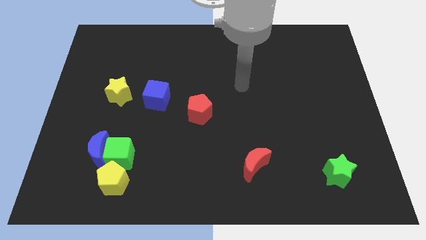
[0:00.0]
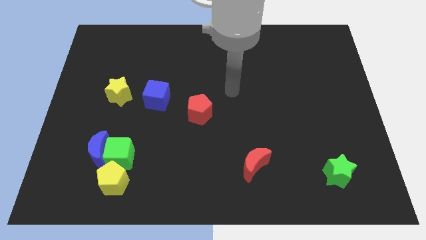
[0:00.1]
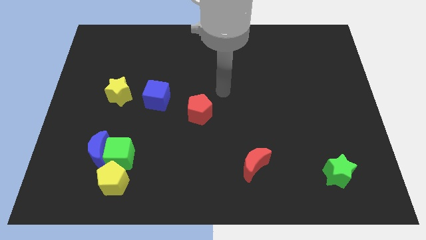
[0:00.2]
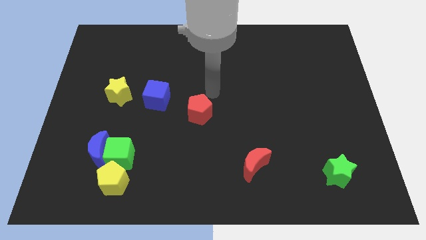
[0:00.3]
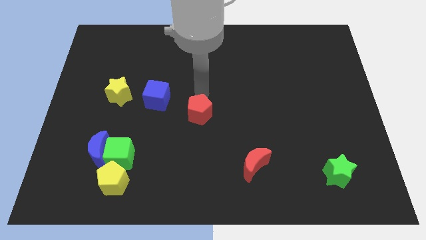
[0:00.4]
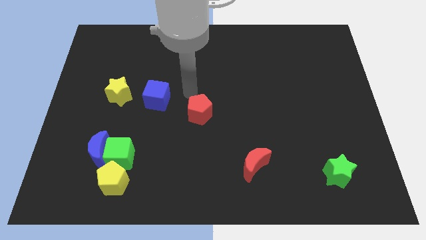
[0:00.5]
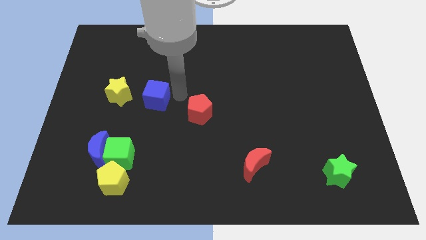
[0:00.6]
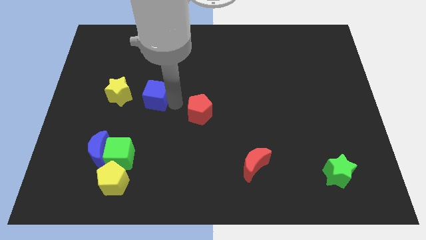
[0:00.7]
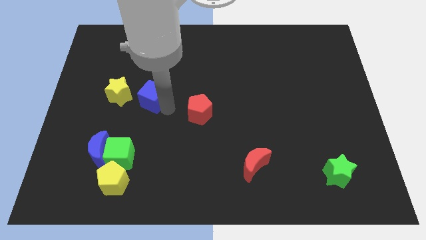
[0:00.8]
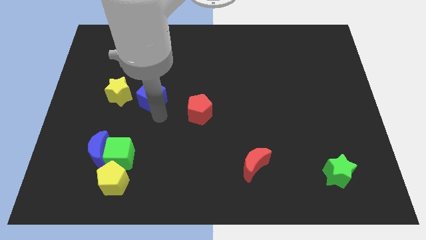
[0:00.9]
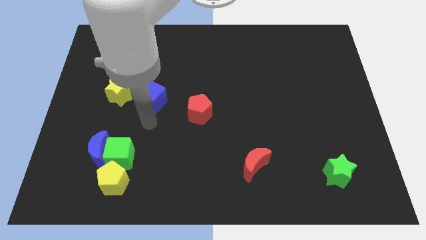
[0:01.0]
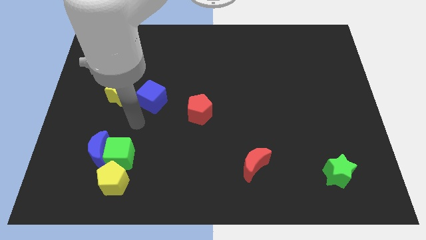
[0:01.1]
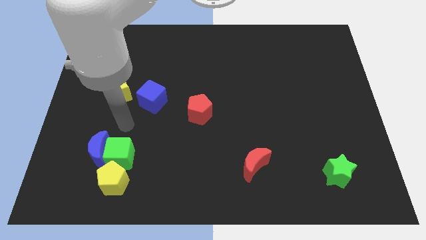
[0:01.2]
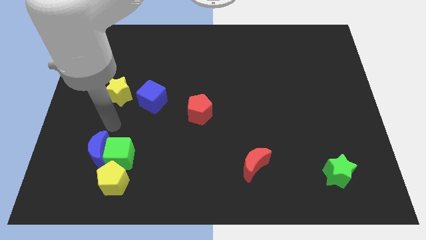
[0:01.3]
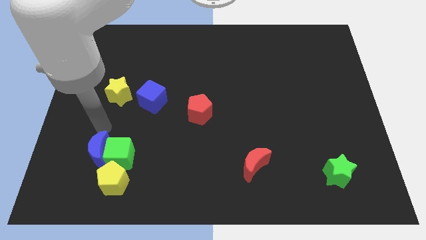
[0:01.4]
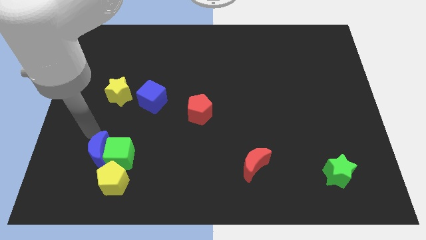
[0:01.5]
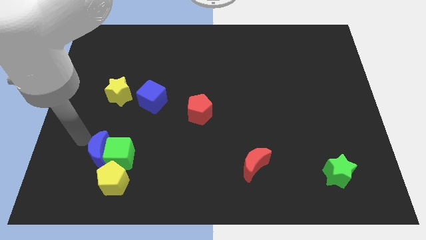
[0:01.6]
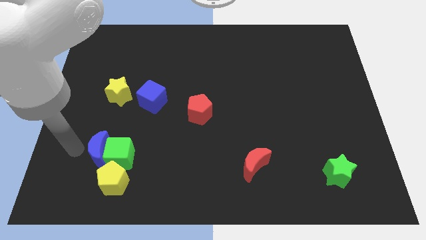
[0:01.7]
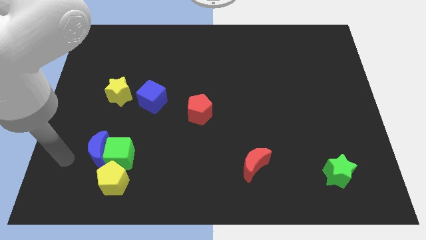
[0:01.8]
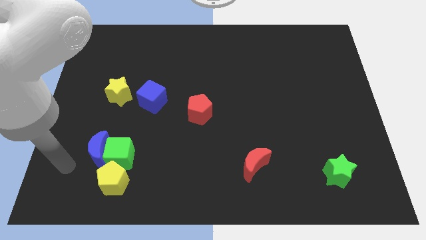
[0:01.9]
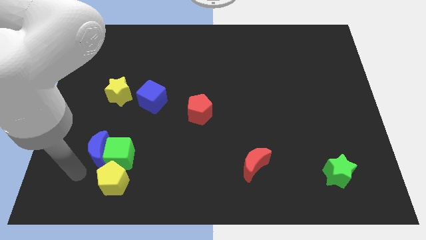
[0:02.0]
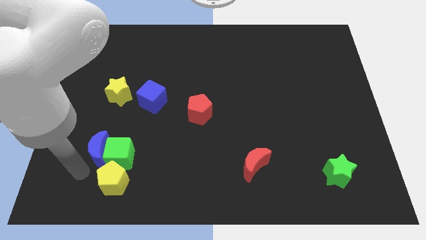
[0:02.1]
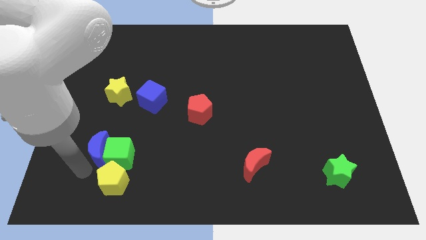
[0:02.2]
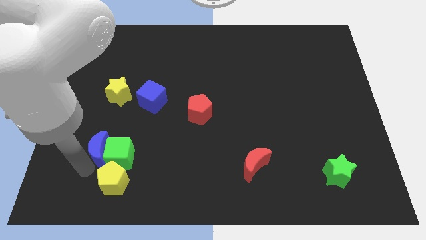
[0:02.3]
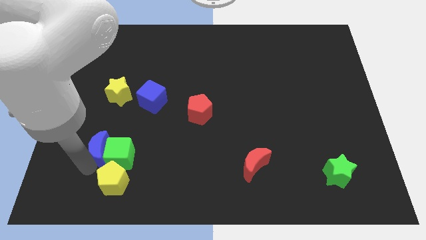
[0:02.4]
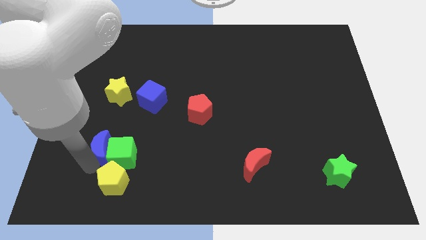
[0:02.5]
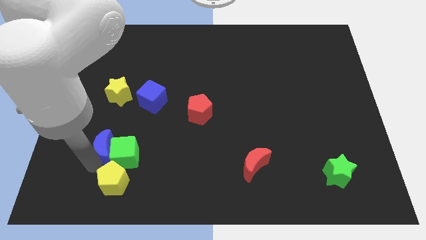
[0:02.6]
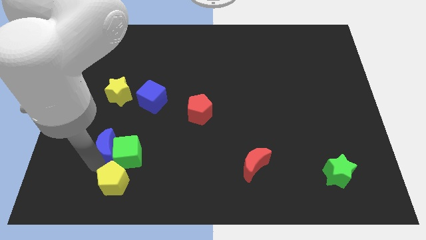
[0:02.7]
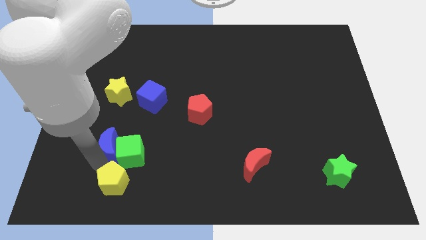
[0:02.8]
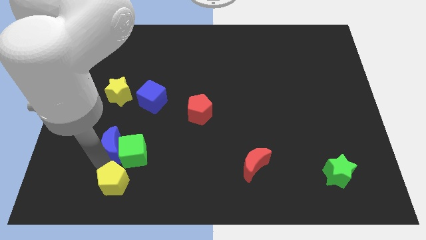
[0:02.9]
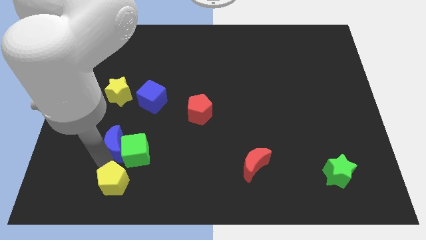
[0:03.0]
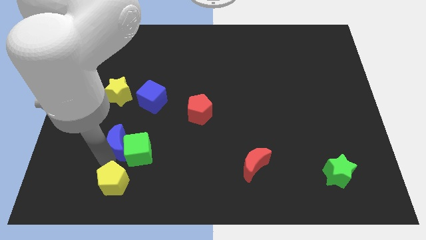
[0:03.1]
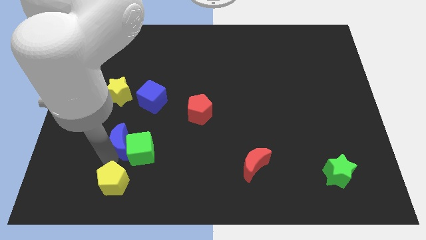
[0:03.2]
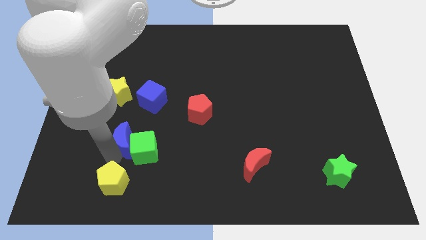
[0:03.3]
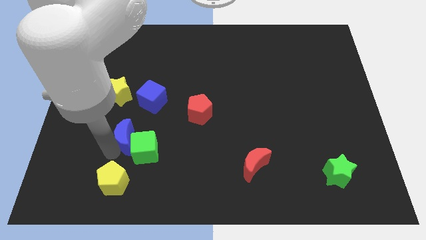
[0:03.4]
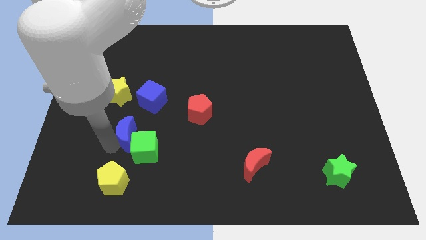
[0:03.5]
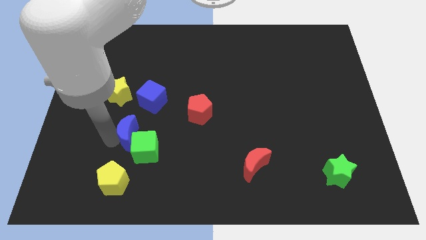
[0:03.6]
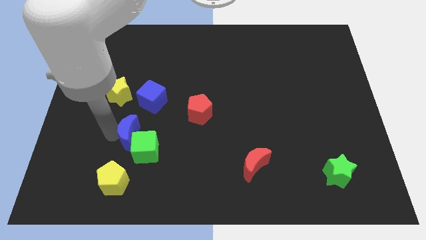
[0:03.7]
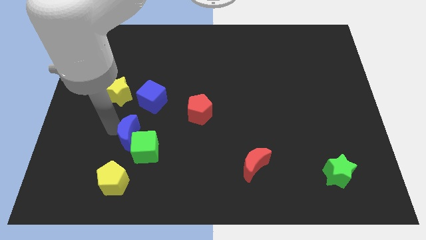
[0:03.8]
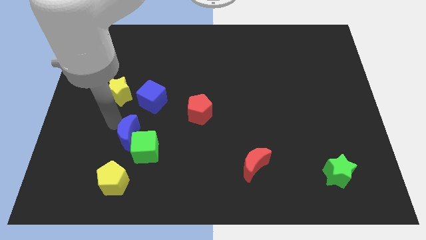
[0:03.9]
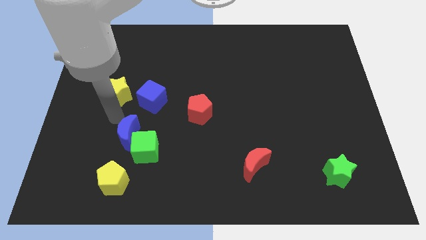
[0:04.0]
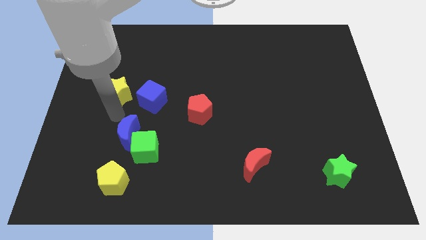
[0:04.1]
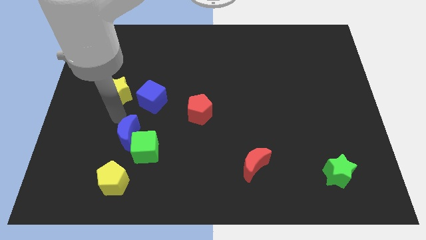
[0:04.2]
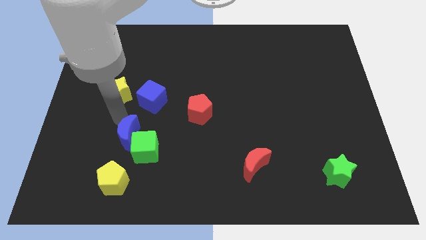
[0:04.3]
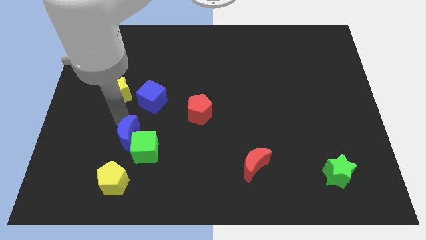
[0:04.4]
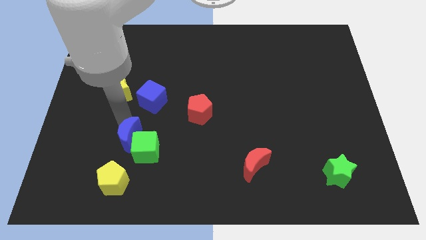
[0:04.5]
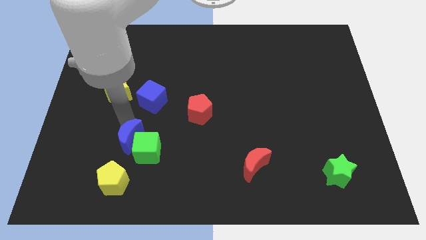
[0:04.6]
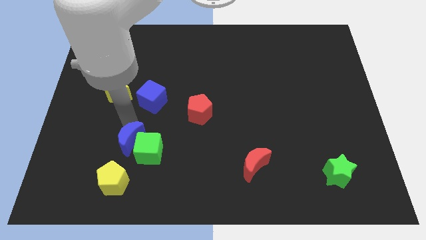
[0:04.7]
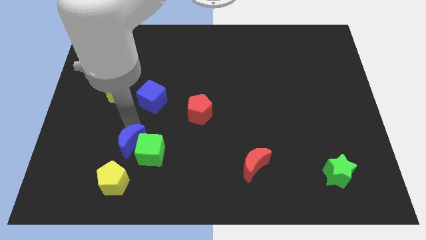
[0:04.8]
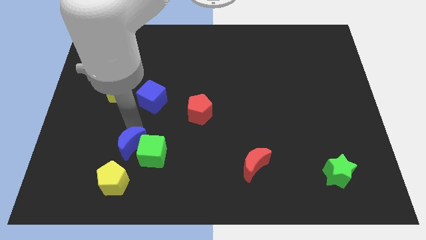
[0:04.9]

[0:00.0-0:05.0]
push the blue moon diagonally up and to the right of the yellow pentagon

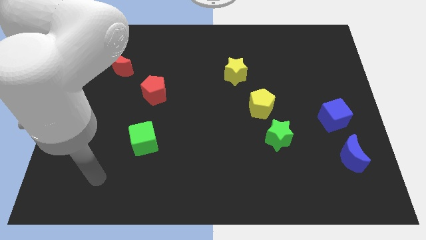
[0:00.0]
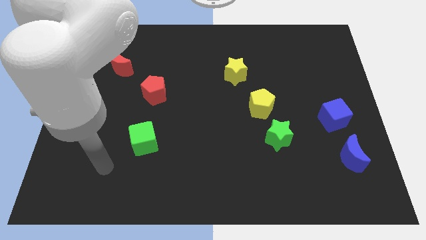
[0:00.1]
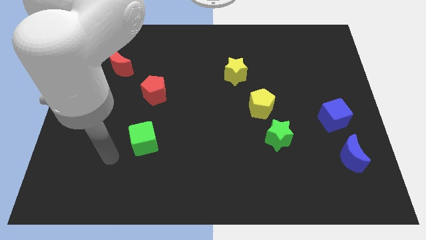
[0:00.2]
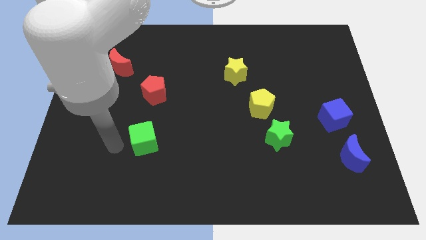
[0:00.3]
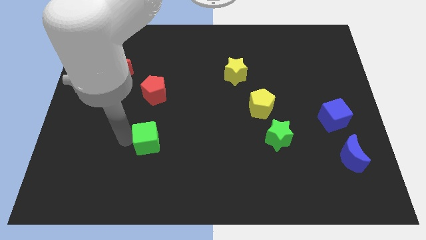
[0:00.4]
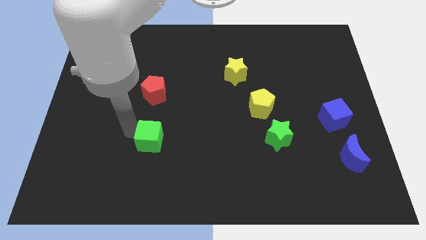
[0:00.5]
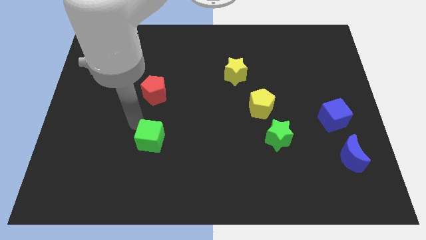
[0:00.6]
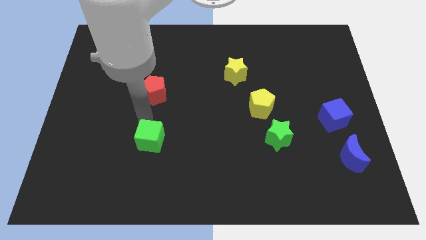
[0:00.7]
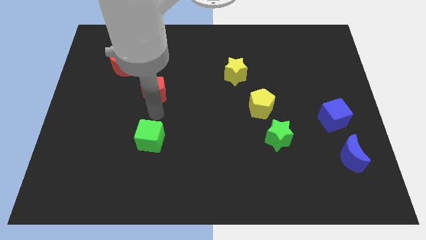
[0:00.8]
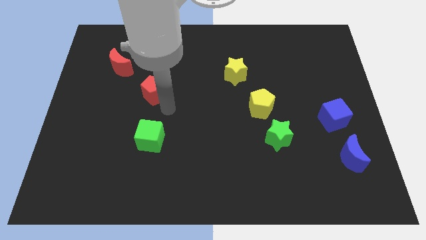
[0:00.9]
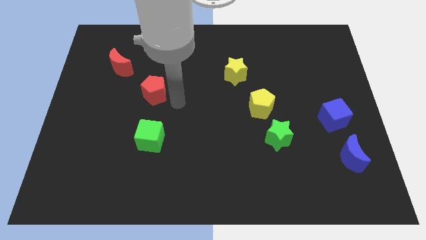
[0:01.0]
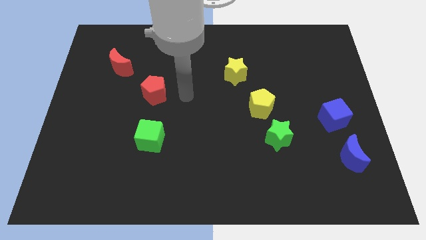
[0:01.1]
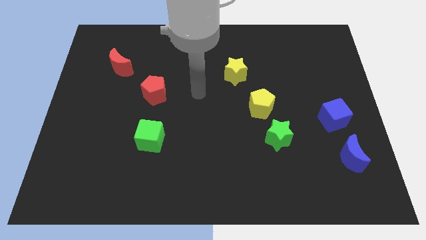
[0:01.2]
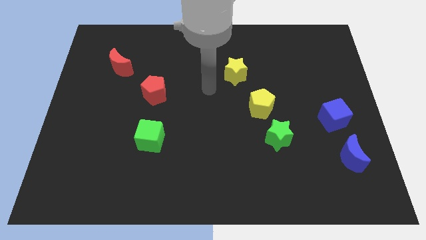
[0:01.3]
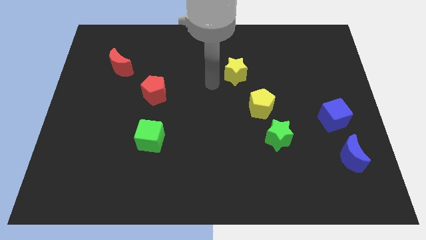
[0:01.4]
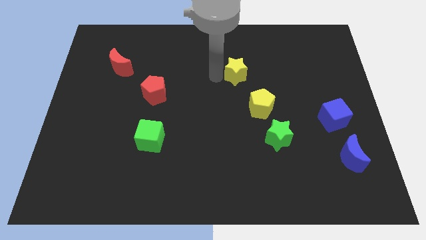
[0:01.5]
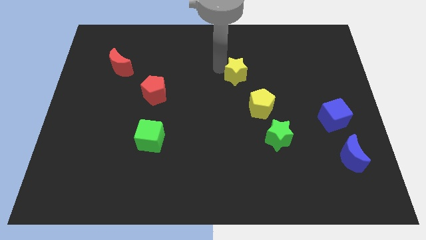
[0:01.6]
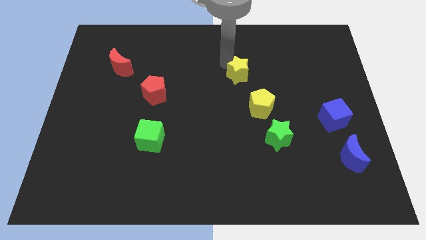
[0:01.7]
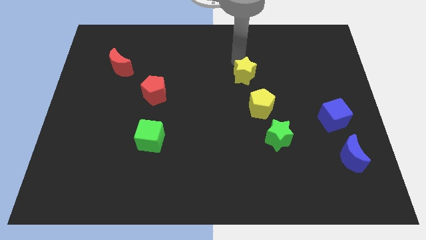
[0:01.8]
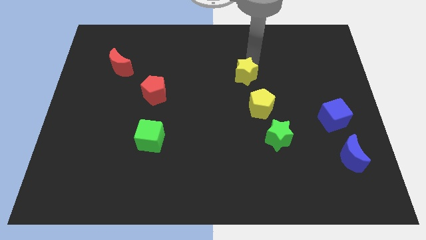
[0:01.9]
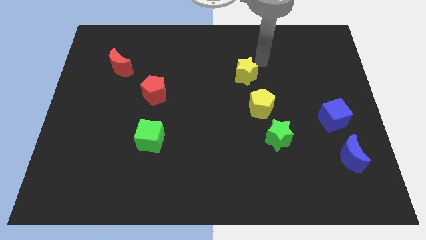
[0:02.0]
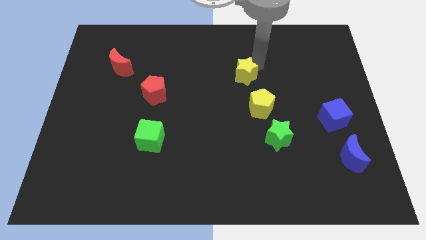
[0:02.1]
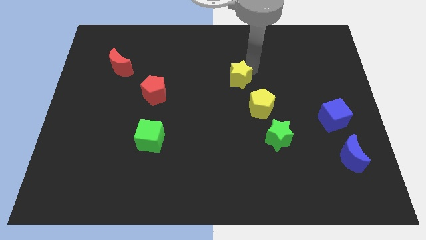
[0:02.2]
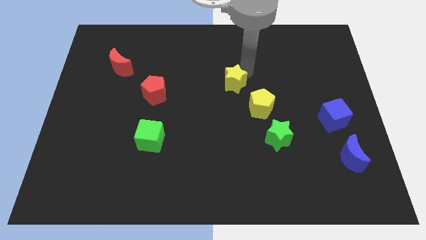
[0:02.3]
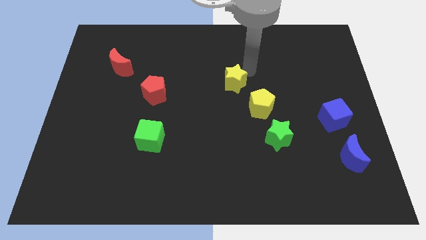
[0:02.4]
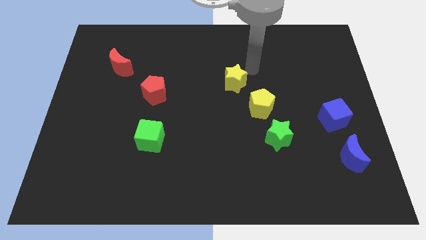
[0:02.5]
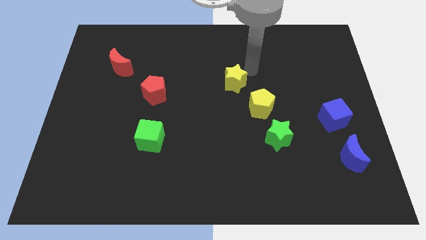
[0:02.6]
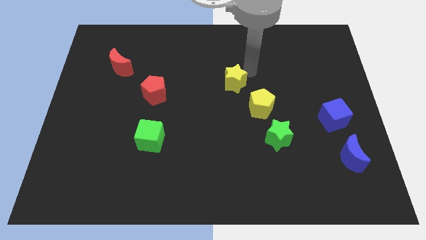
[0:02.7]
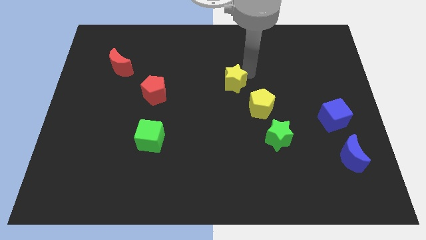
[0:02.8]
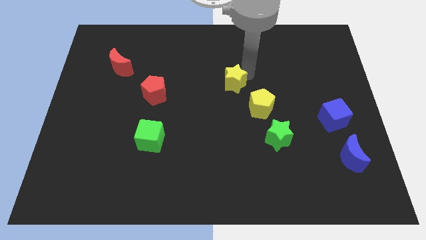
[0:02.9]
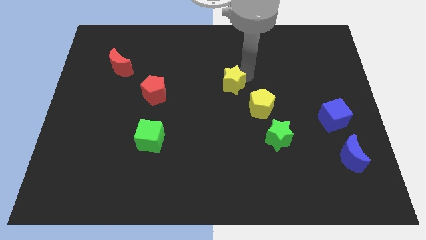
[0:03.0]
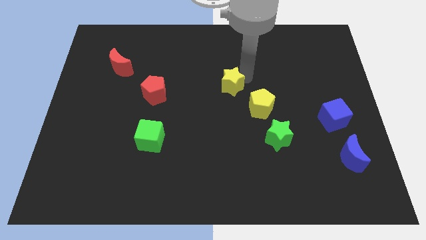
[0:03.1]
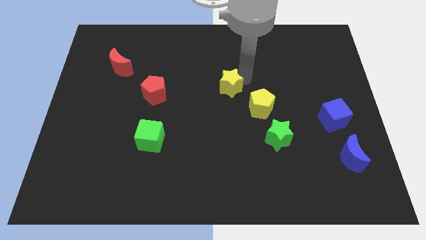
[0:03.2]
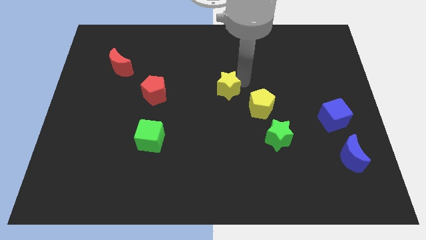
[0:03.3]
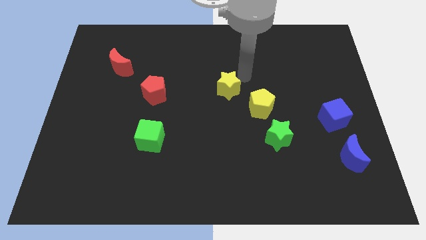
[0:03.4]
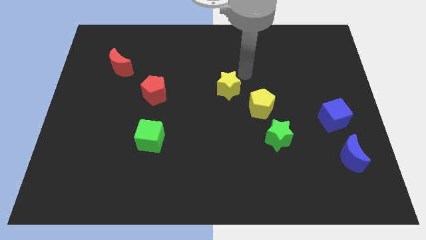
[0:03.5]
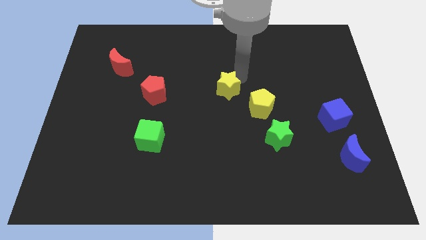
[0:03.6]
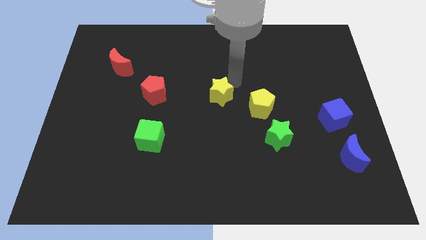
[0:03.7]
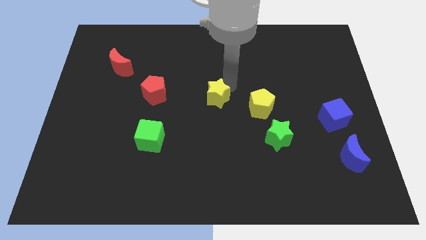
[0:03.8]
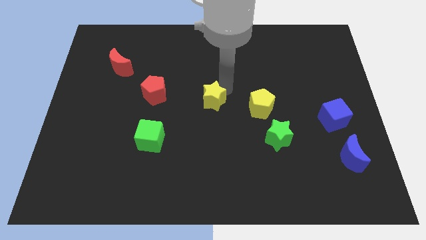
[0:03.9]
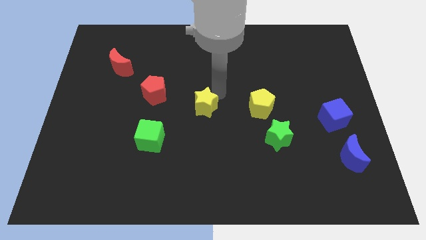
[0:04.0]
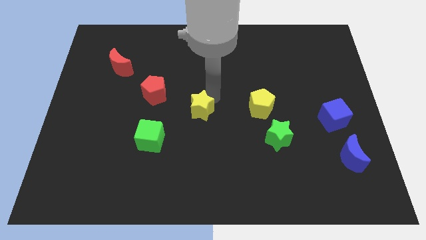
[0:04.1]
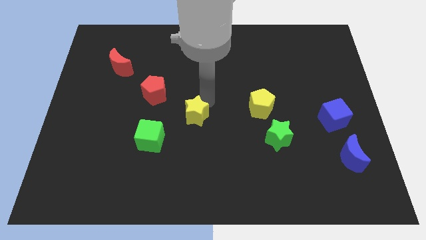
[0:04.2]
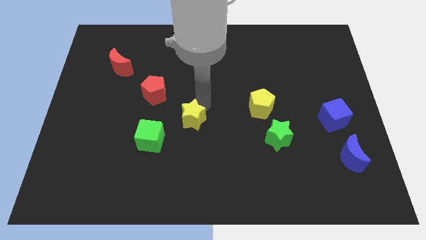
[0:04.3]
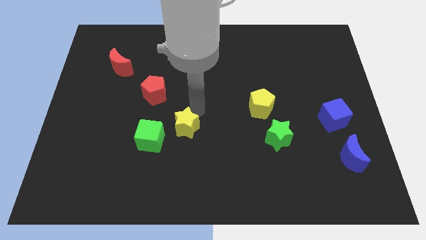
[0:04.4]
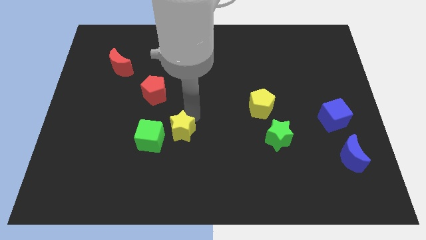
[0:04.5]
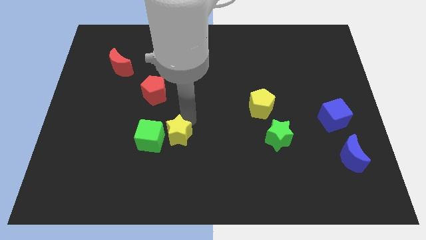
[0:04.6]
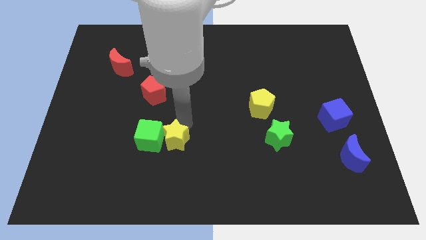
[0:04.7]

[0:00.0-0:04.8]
push the yellow star to the bottom right side of the green cube
